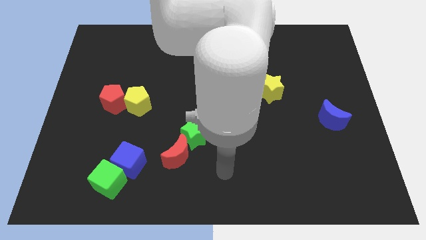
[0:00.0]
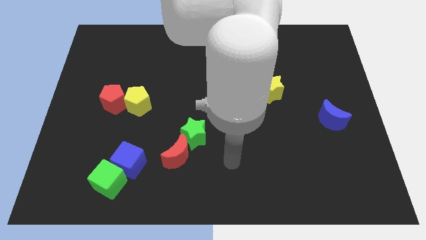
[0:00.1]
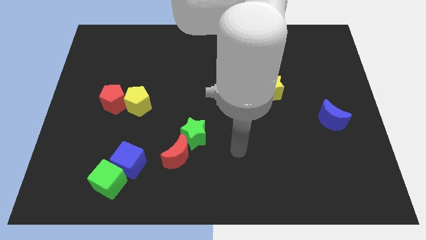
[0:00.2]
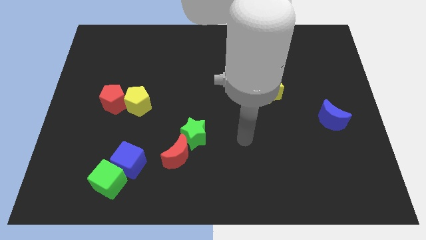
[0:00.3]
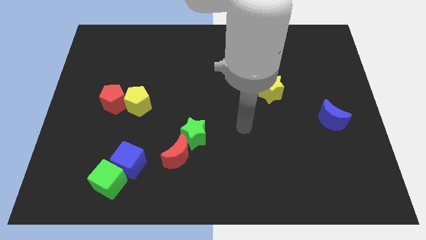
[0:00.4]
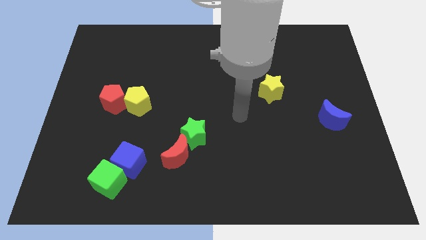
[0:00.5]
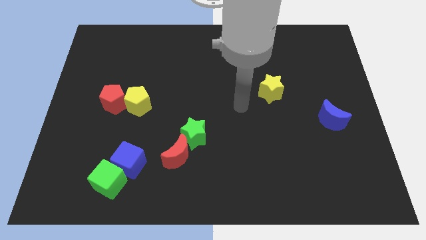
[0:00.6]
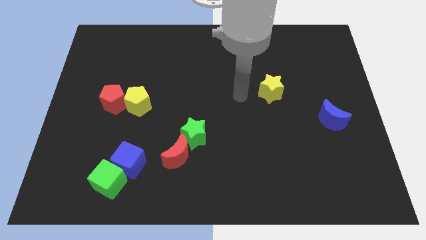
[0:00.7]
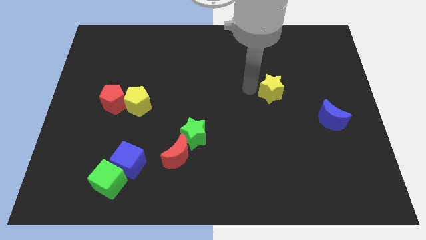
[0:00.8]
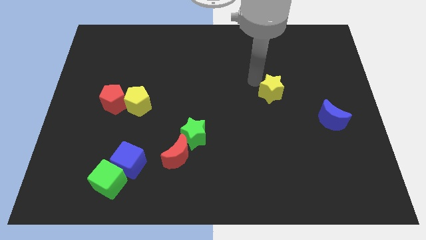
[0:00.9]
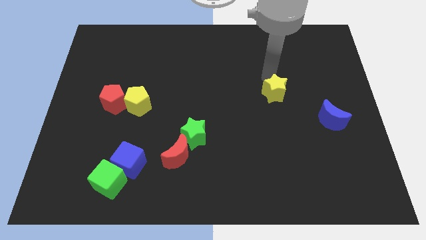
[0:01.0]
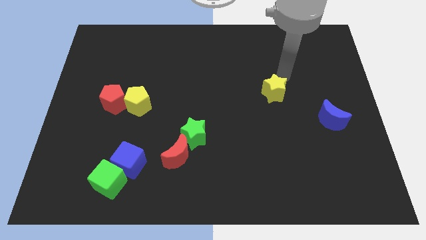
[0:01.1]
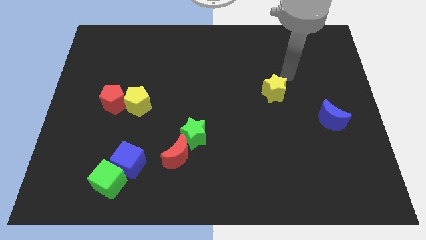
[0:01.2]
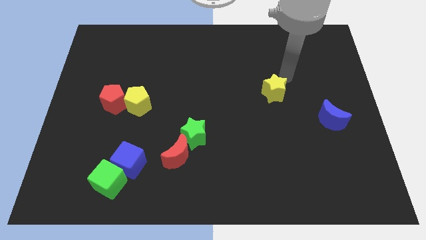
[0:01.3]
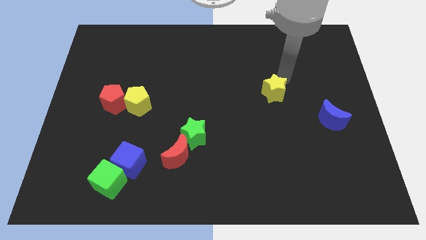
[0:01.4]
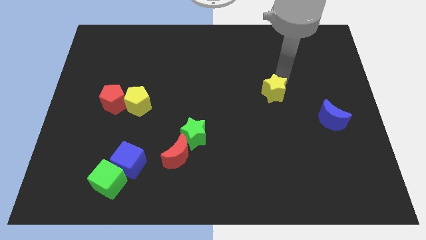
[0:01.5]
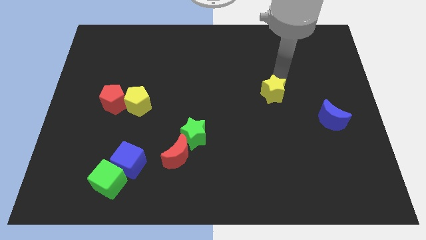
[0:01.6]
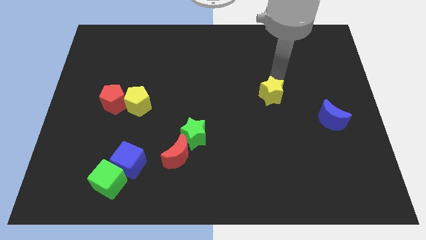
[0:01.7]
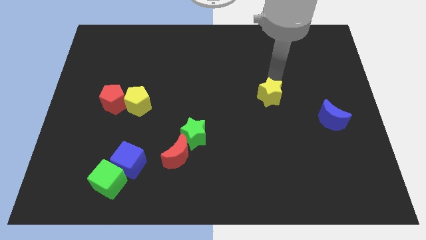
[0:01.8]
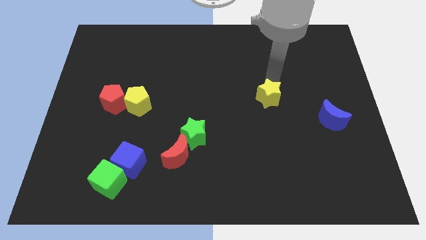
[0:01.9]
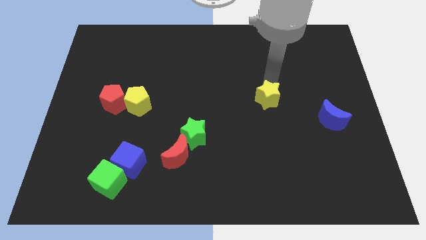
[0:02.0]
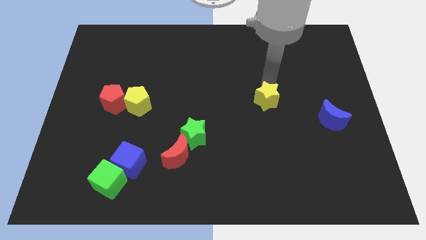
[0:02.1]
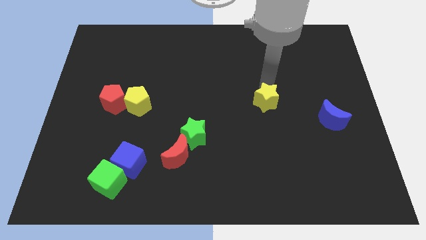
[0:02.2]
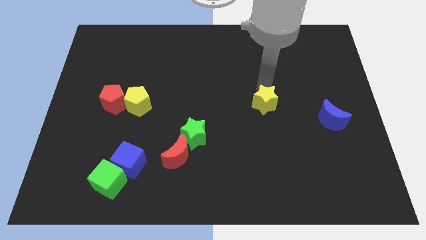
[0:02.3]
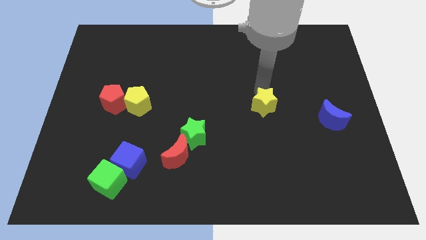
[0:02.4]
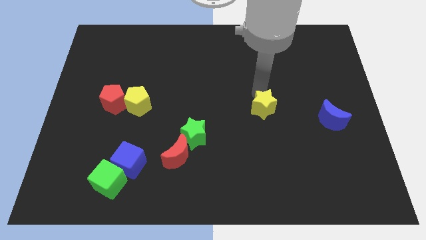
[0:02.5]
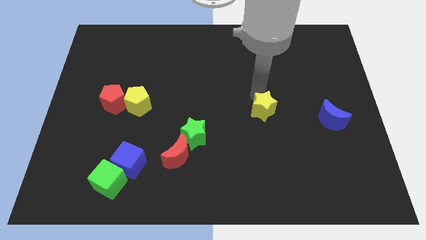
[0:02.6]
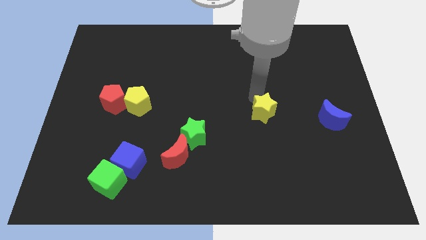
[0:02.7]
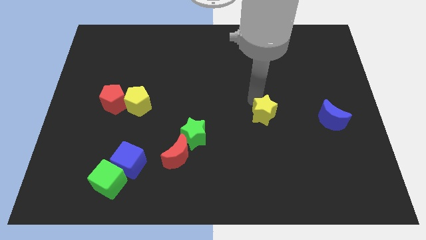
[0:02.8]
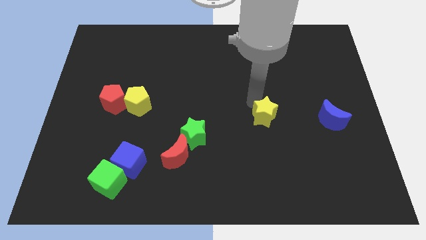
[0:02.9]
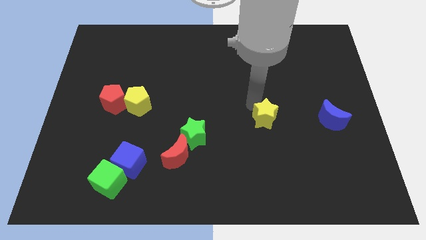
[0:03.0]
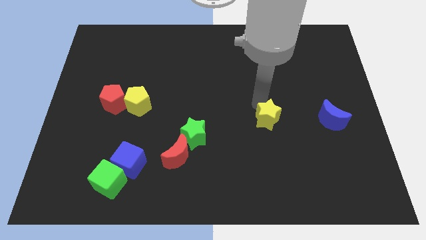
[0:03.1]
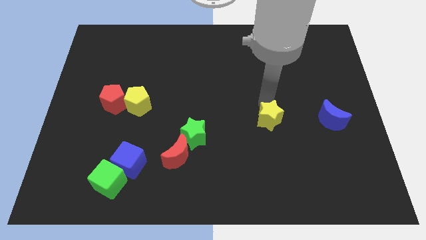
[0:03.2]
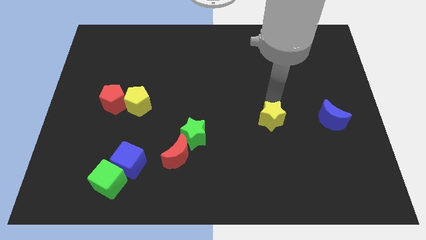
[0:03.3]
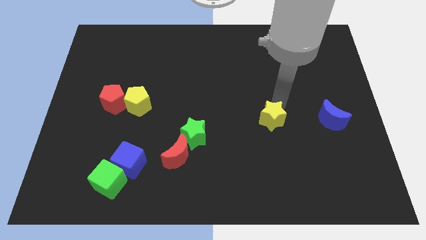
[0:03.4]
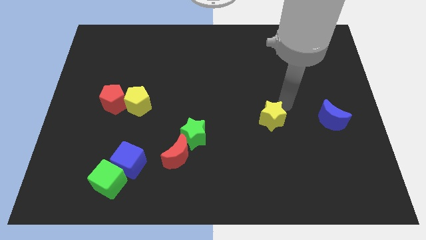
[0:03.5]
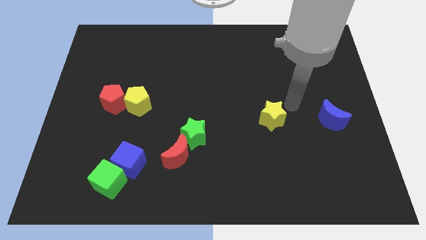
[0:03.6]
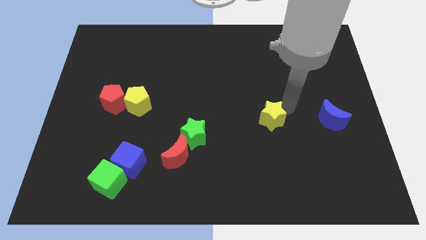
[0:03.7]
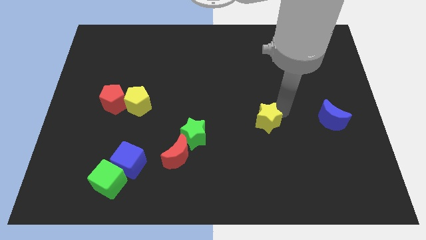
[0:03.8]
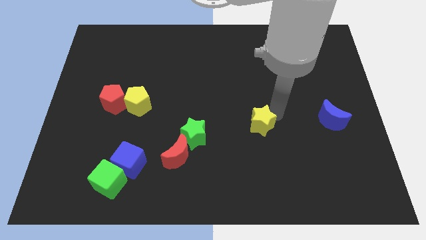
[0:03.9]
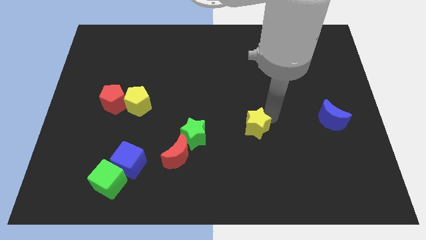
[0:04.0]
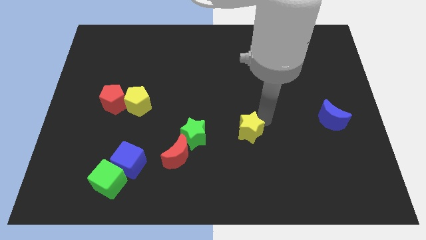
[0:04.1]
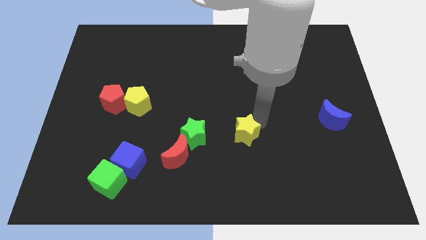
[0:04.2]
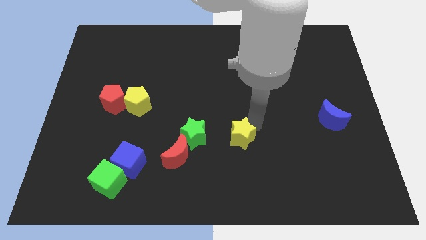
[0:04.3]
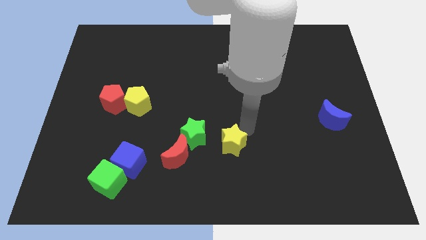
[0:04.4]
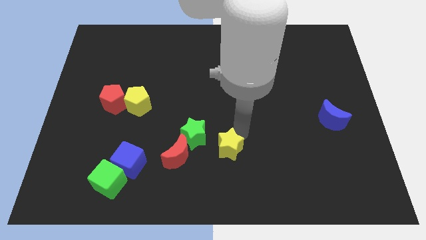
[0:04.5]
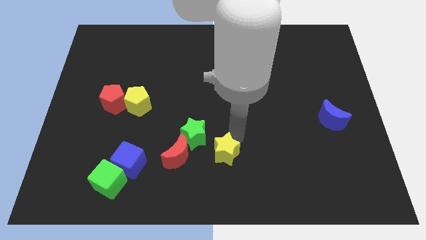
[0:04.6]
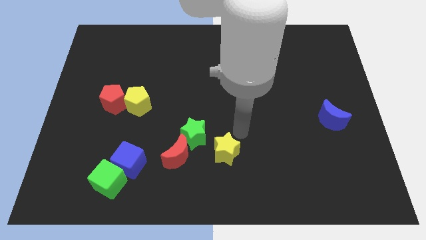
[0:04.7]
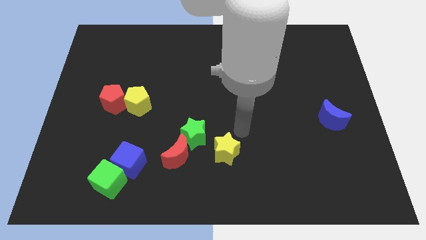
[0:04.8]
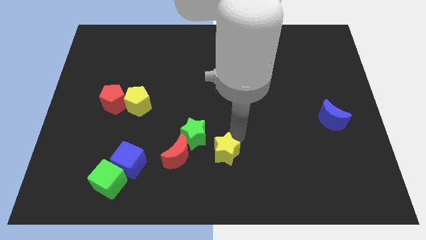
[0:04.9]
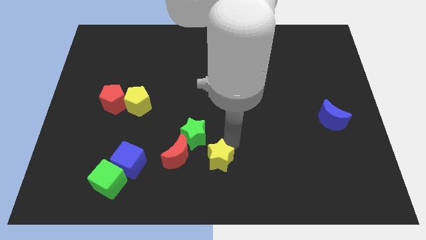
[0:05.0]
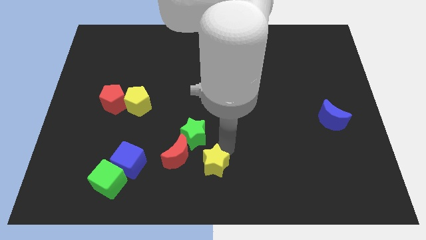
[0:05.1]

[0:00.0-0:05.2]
slide the yellow star to the bottom right side of the red moon
